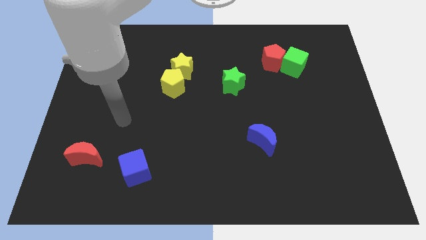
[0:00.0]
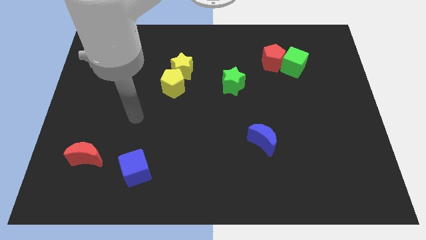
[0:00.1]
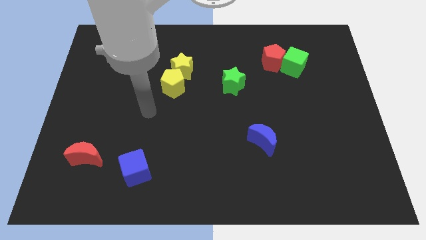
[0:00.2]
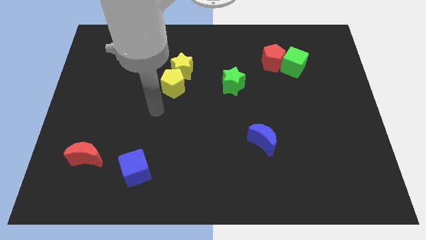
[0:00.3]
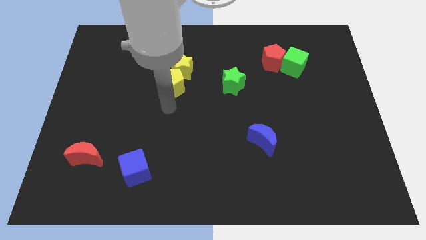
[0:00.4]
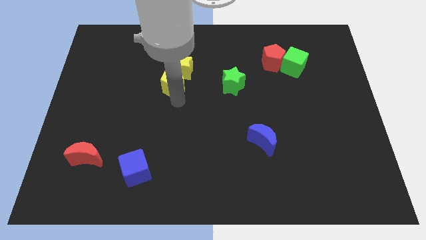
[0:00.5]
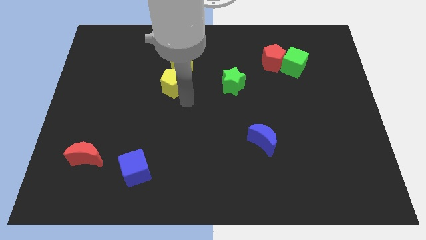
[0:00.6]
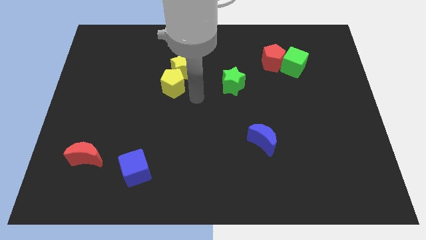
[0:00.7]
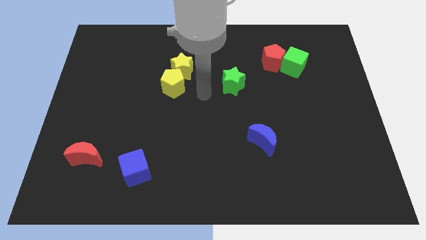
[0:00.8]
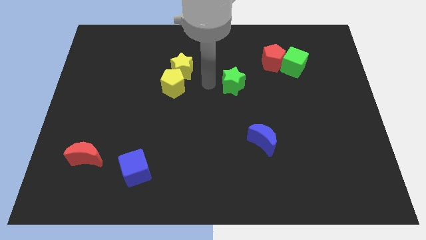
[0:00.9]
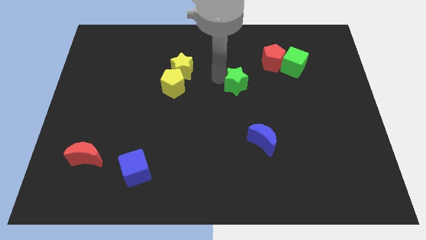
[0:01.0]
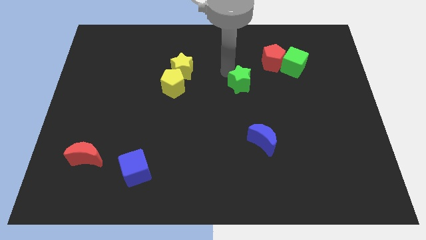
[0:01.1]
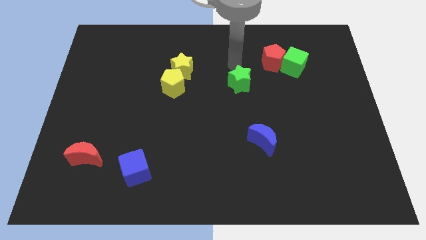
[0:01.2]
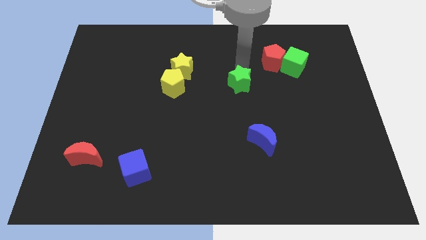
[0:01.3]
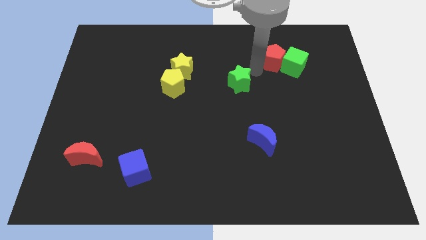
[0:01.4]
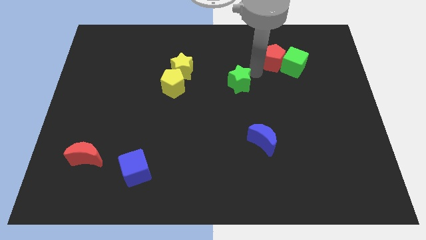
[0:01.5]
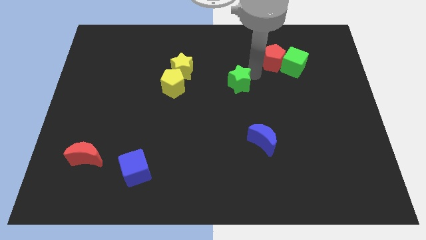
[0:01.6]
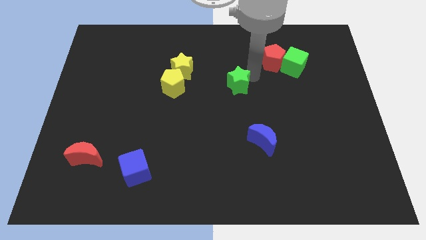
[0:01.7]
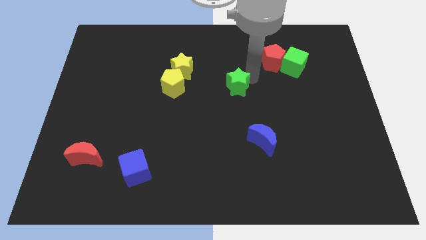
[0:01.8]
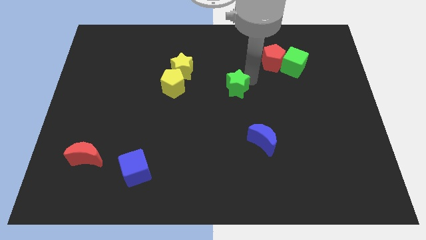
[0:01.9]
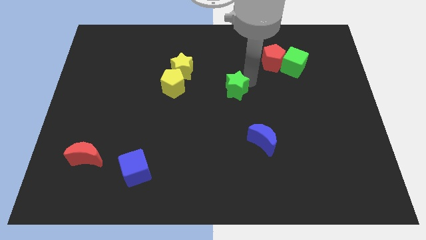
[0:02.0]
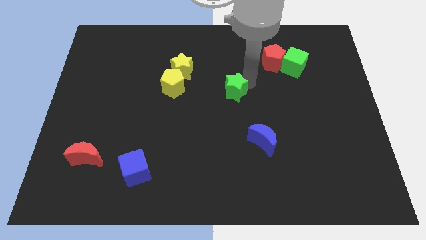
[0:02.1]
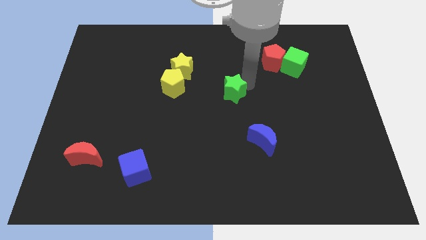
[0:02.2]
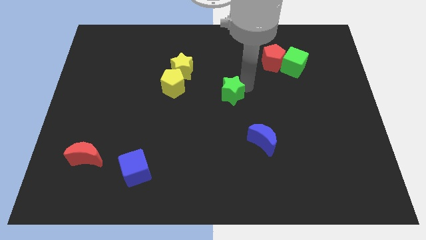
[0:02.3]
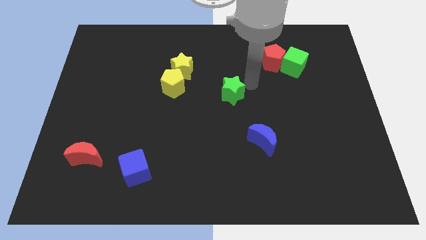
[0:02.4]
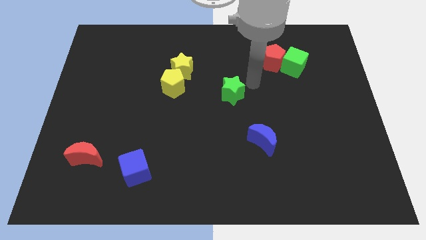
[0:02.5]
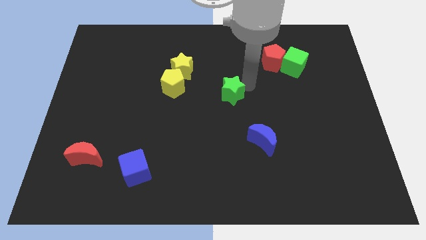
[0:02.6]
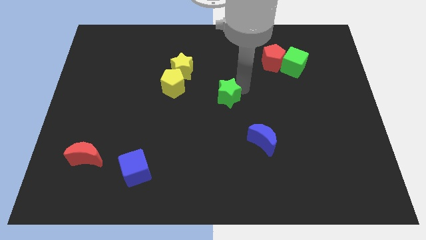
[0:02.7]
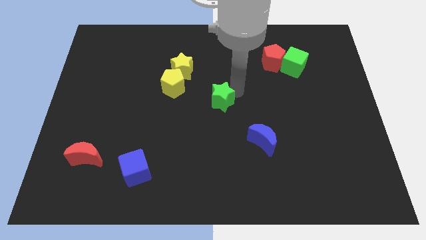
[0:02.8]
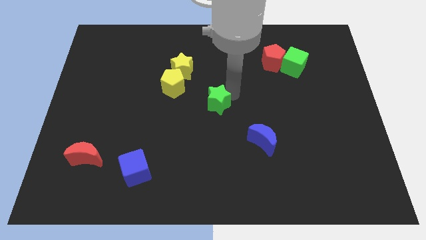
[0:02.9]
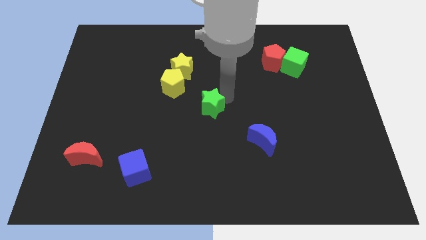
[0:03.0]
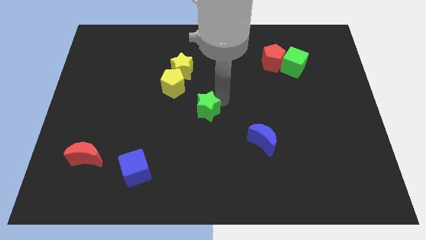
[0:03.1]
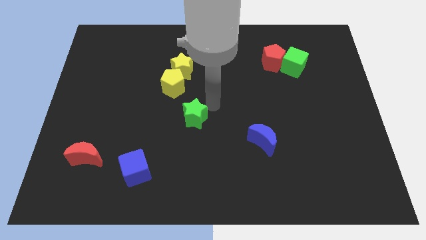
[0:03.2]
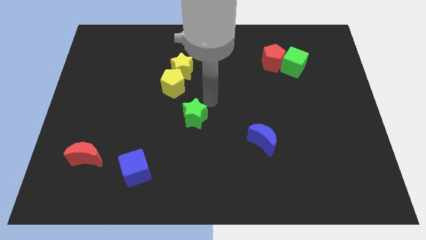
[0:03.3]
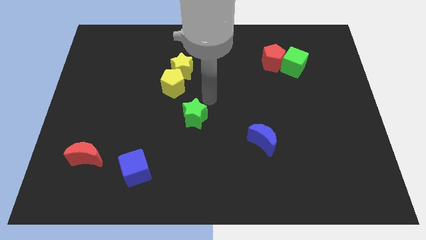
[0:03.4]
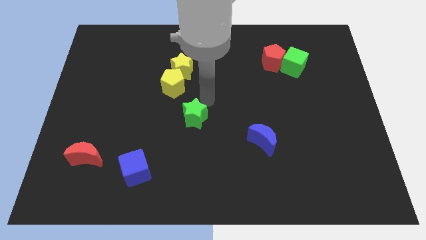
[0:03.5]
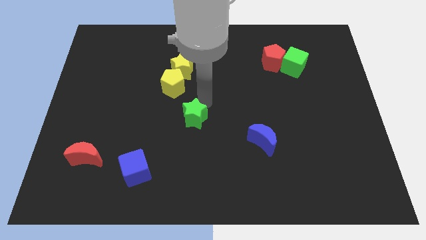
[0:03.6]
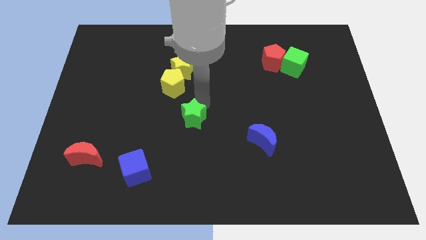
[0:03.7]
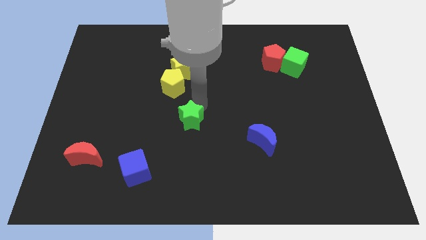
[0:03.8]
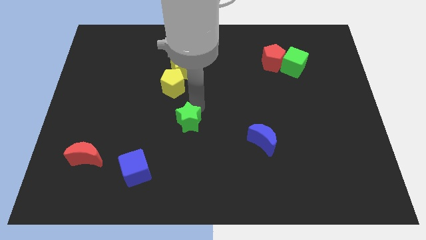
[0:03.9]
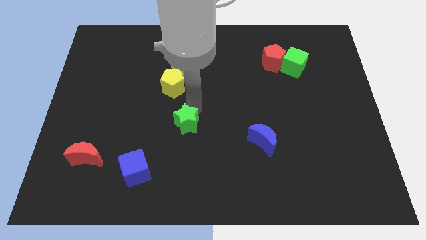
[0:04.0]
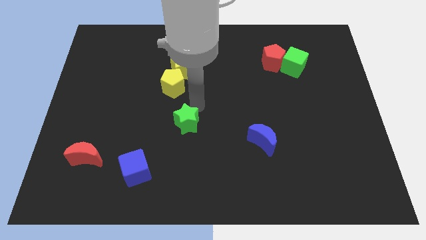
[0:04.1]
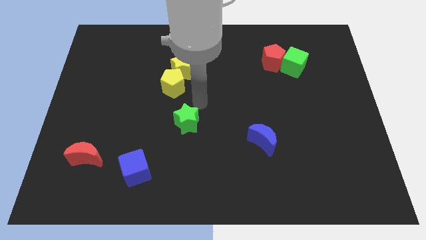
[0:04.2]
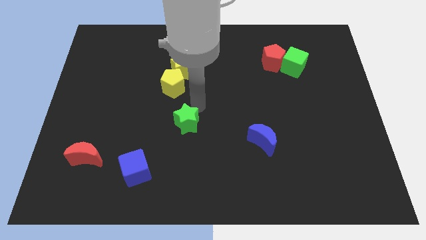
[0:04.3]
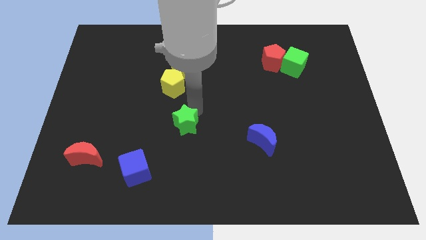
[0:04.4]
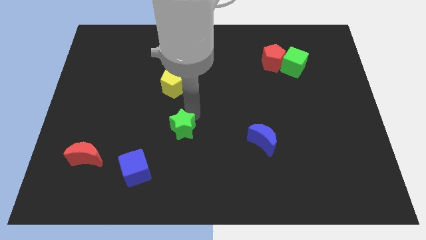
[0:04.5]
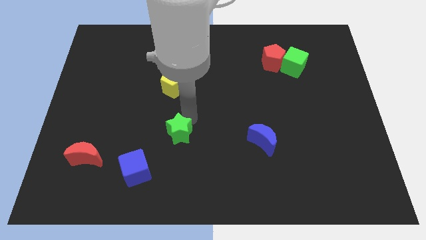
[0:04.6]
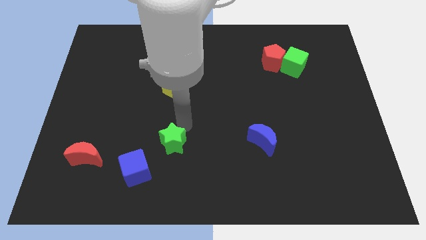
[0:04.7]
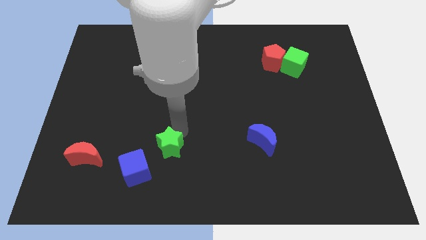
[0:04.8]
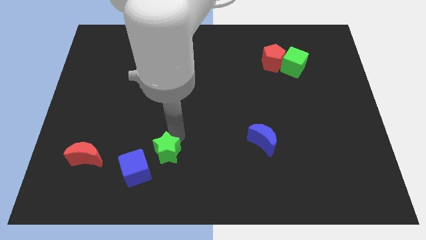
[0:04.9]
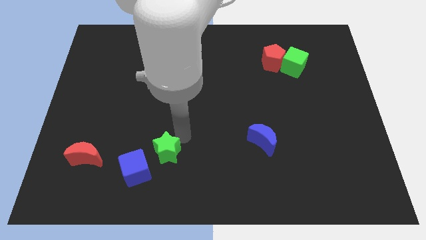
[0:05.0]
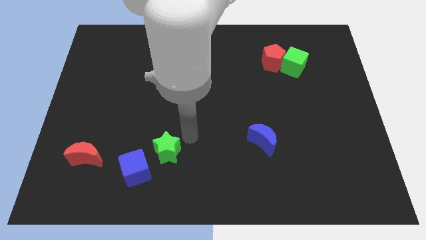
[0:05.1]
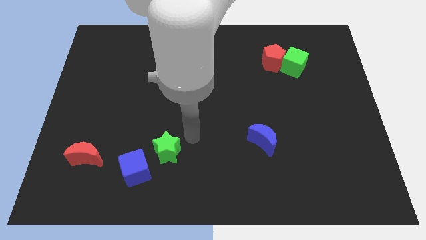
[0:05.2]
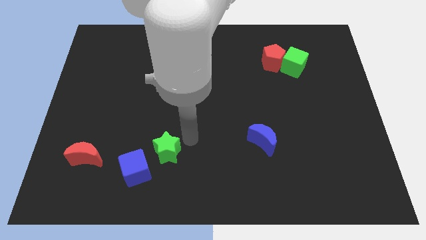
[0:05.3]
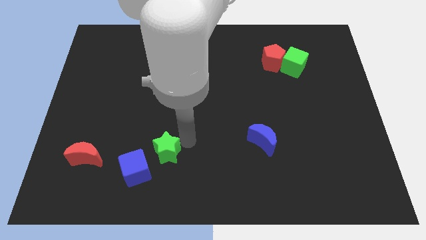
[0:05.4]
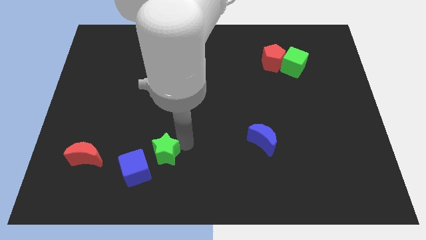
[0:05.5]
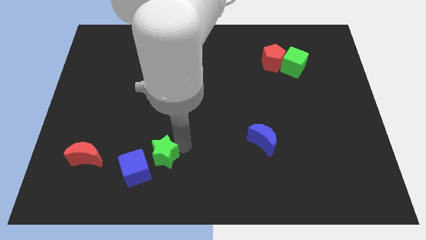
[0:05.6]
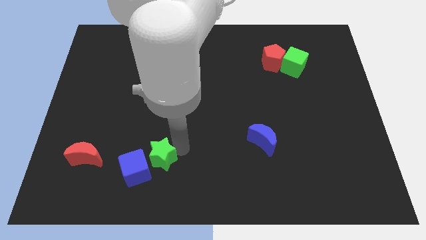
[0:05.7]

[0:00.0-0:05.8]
move the green star close to the blue cube

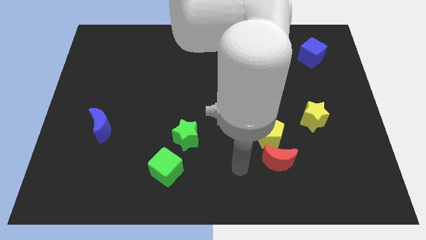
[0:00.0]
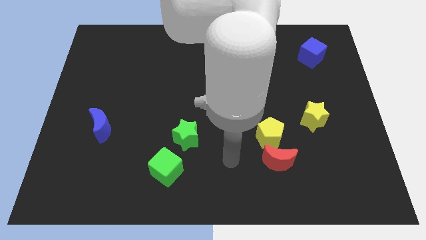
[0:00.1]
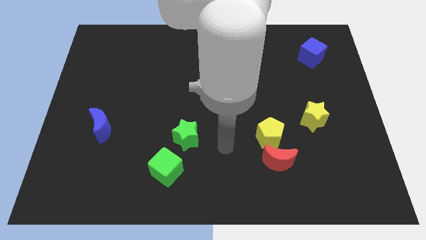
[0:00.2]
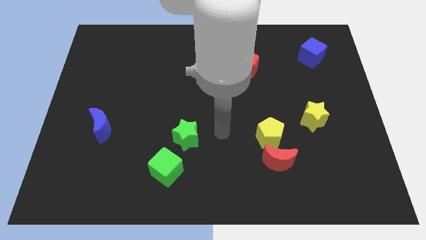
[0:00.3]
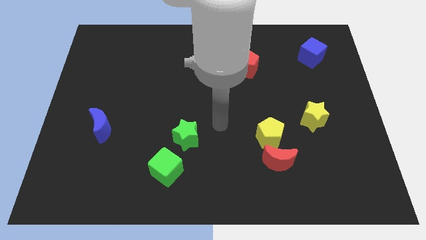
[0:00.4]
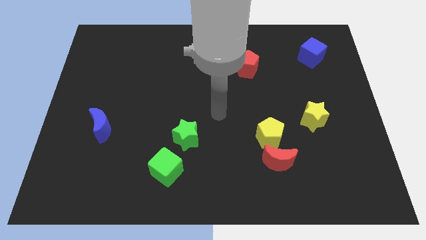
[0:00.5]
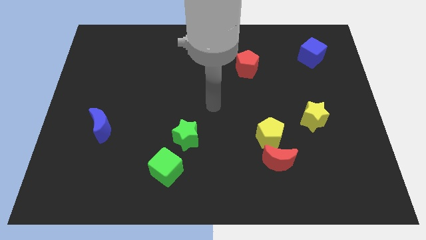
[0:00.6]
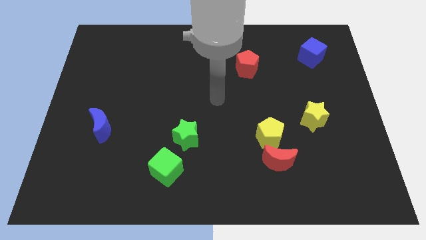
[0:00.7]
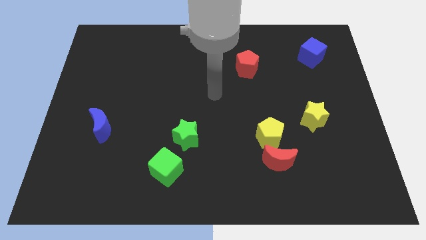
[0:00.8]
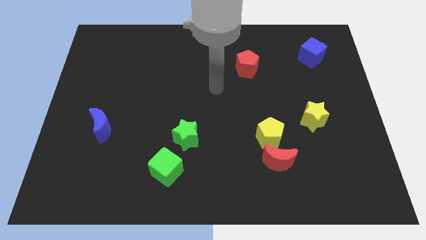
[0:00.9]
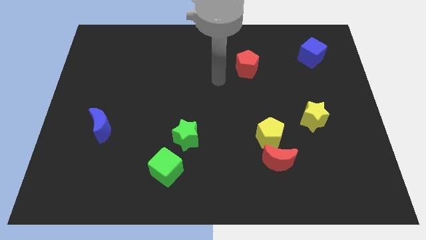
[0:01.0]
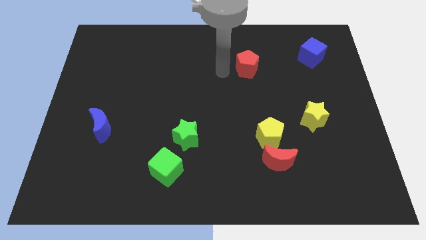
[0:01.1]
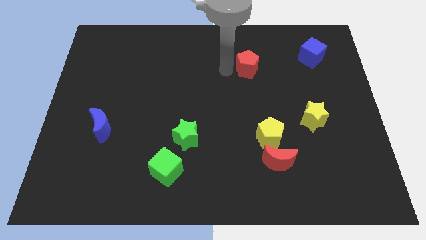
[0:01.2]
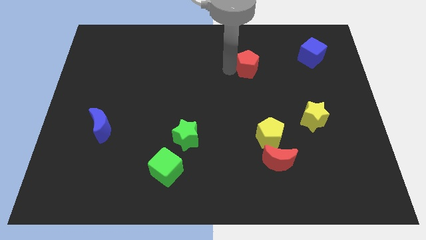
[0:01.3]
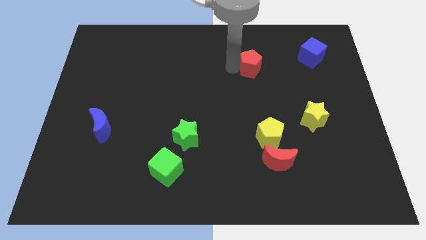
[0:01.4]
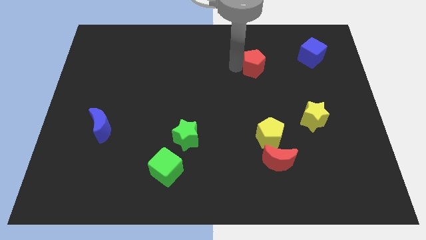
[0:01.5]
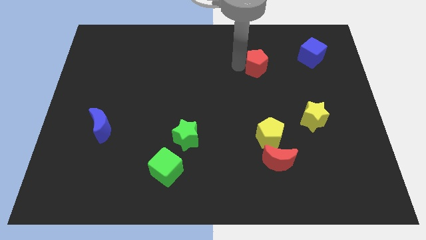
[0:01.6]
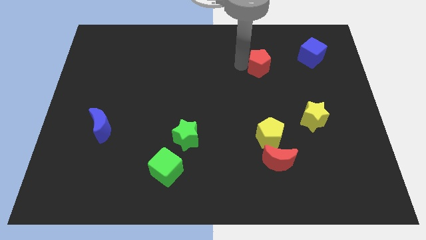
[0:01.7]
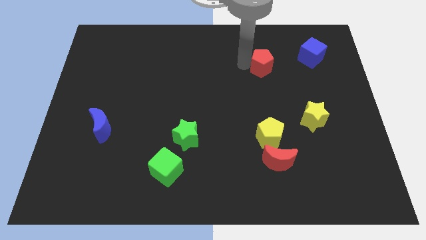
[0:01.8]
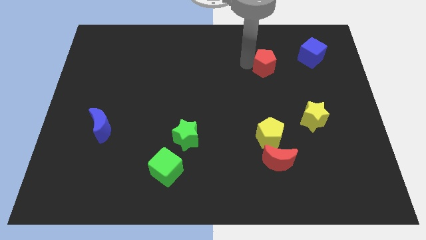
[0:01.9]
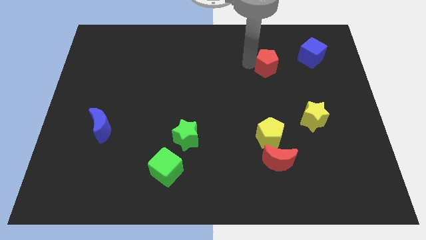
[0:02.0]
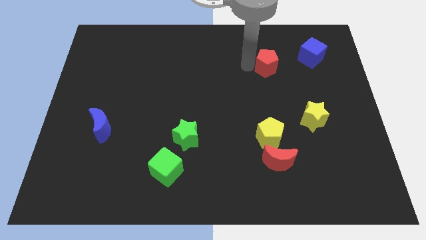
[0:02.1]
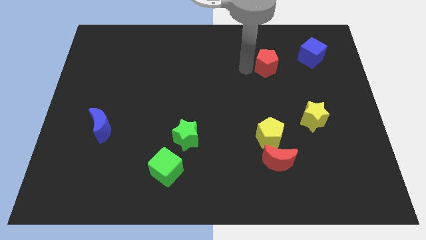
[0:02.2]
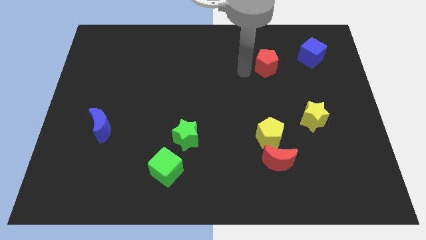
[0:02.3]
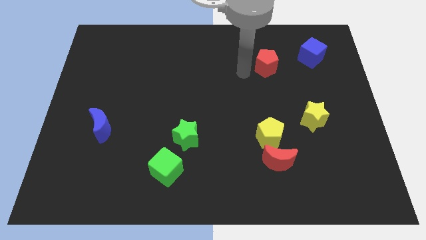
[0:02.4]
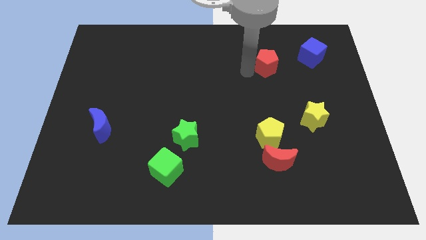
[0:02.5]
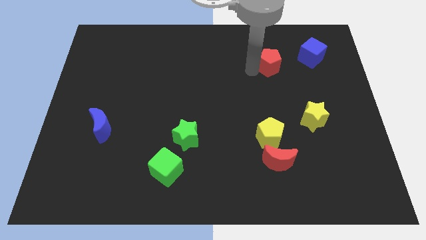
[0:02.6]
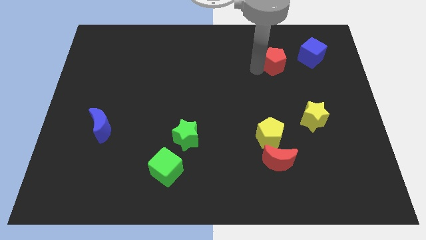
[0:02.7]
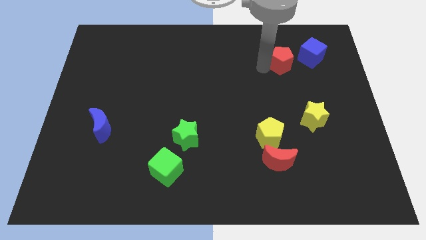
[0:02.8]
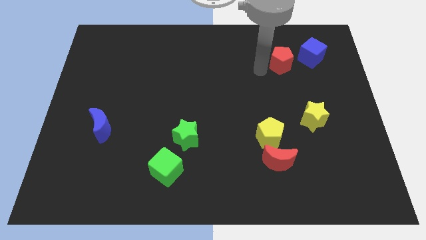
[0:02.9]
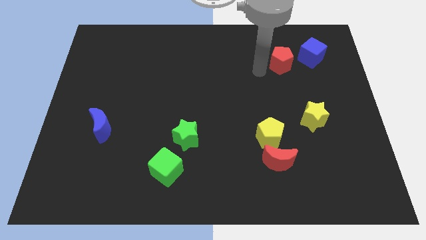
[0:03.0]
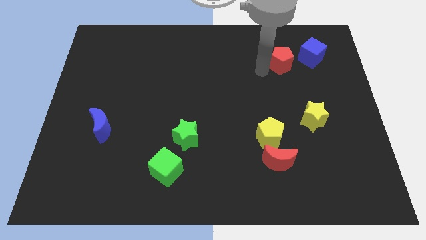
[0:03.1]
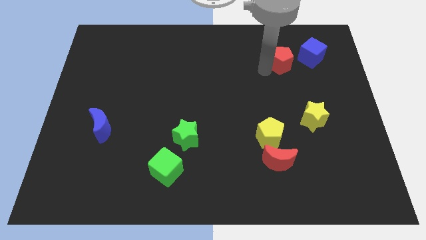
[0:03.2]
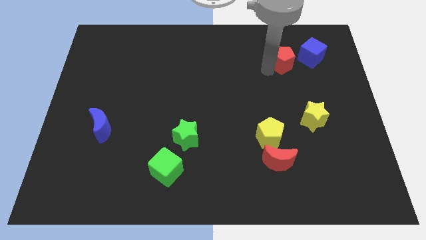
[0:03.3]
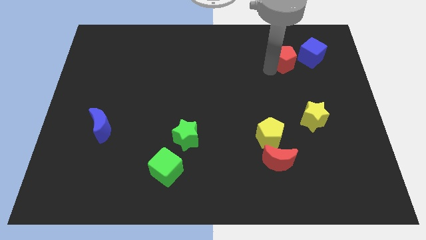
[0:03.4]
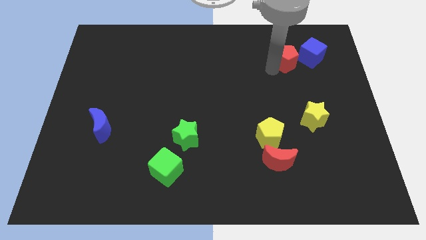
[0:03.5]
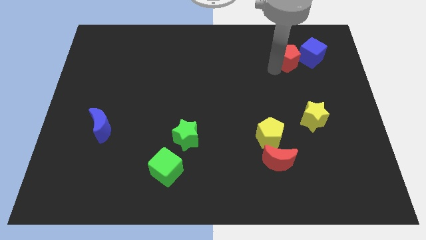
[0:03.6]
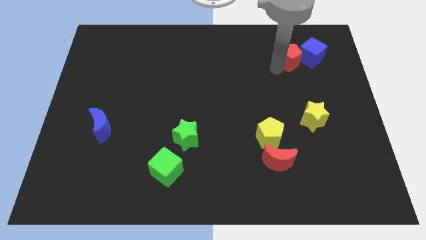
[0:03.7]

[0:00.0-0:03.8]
push the red pentagon close to the blue cube
